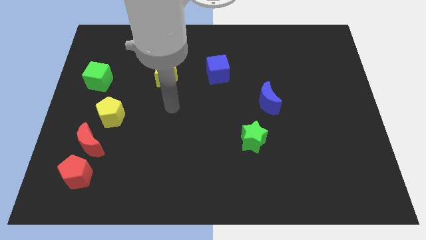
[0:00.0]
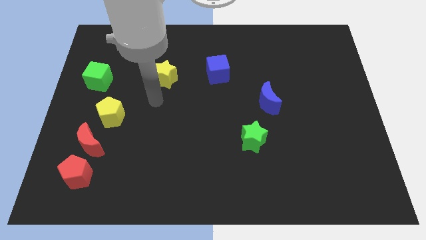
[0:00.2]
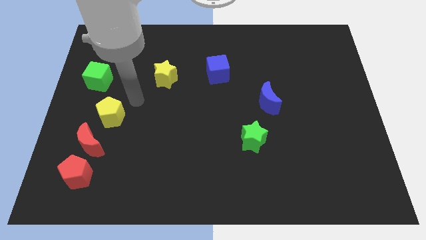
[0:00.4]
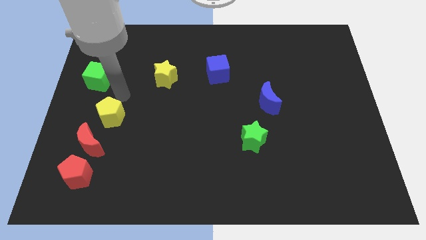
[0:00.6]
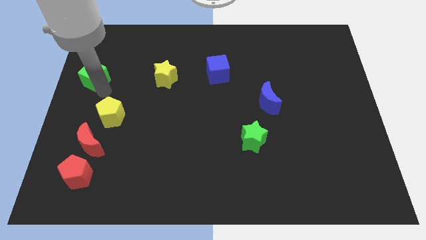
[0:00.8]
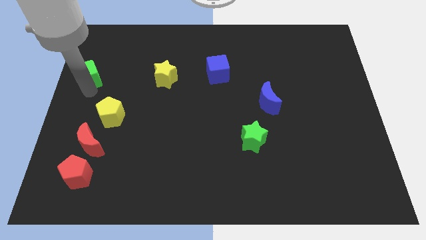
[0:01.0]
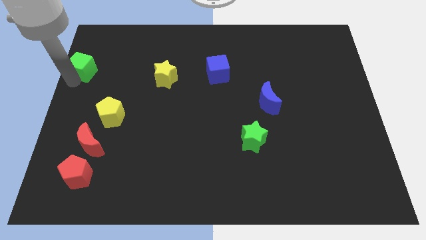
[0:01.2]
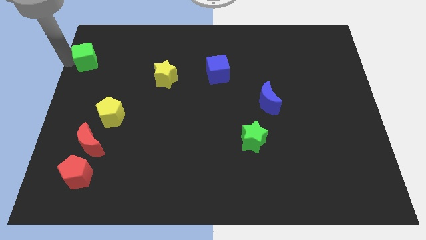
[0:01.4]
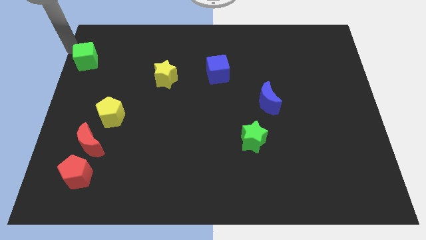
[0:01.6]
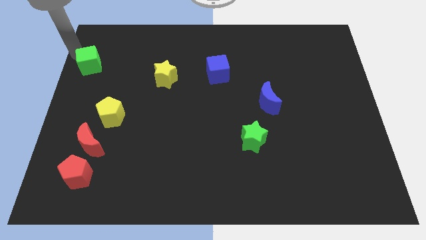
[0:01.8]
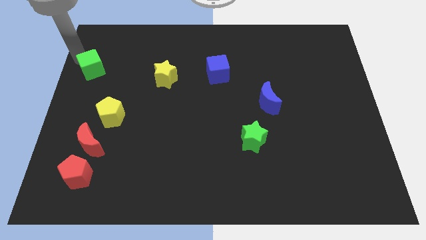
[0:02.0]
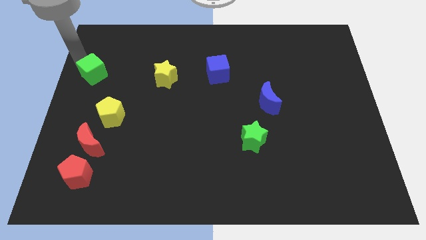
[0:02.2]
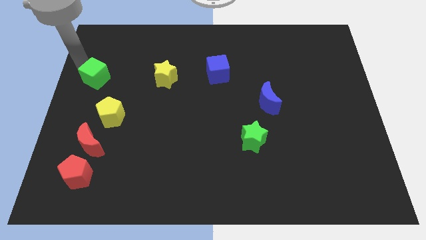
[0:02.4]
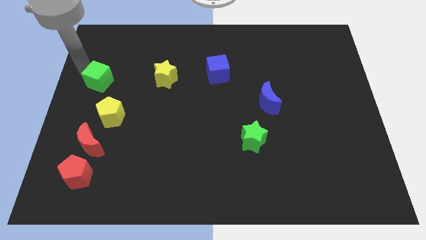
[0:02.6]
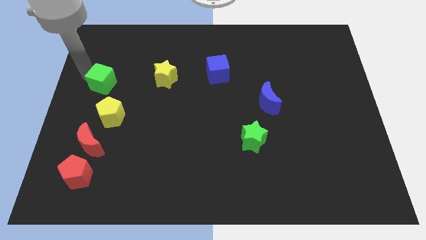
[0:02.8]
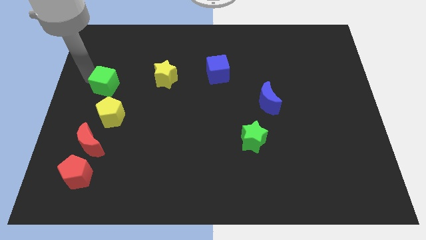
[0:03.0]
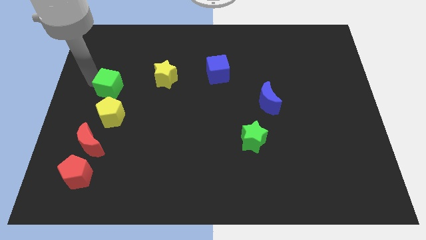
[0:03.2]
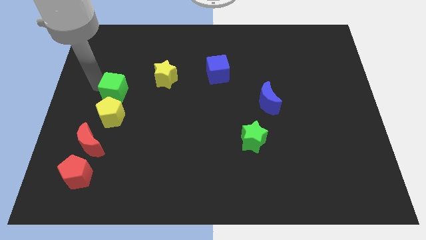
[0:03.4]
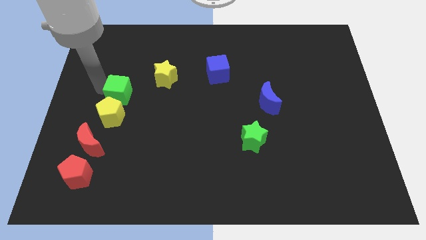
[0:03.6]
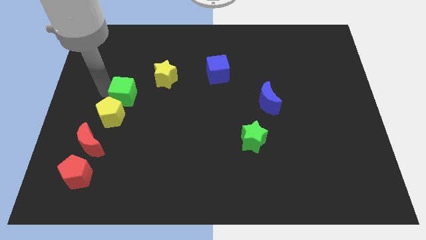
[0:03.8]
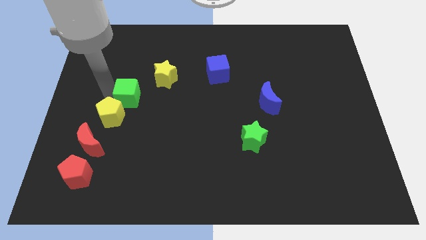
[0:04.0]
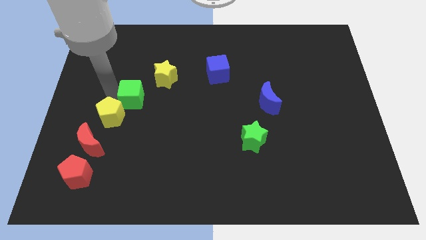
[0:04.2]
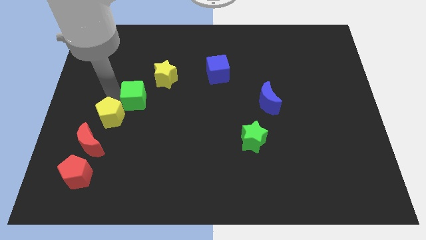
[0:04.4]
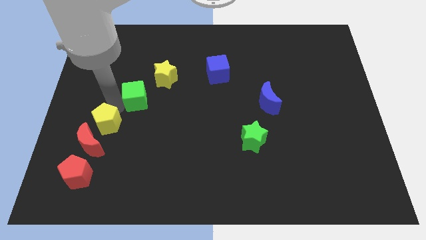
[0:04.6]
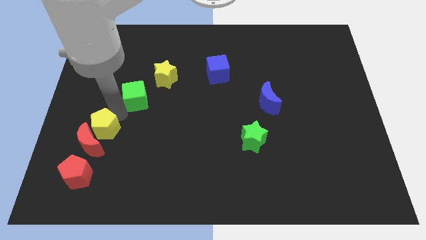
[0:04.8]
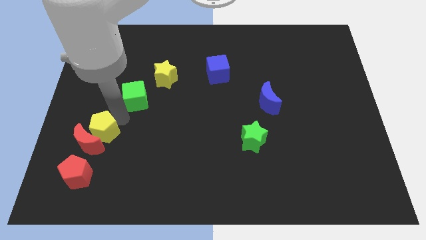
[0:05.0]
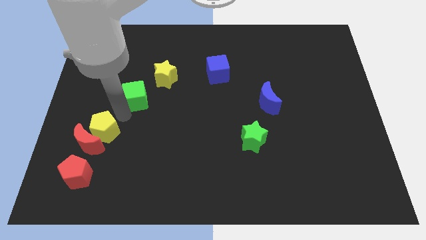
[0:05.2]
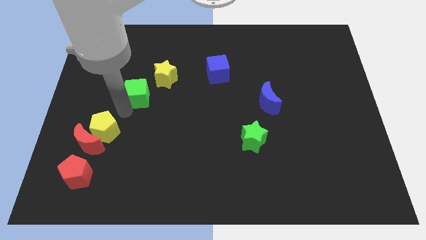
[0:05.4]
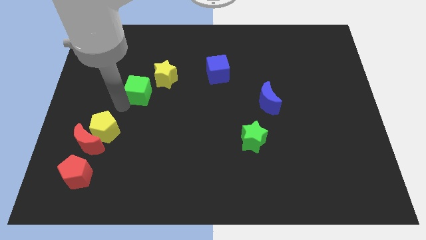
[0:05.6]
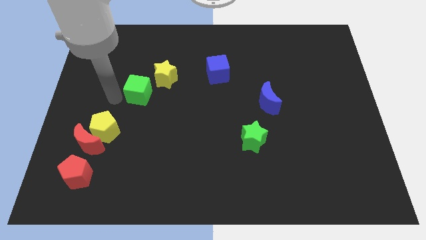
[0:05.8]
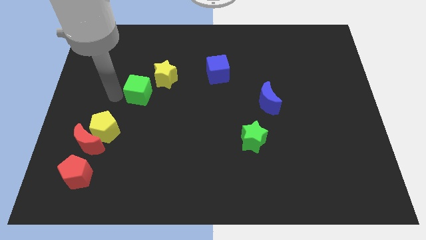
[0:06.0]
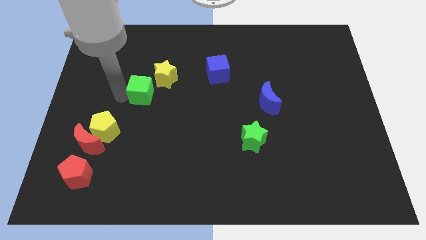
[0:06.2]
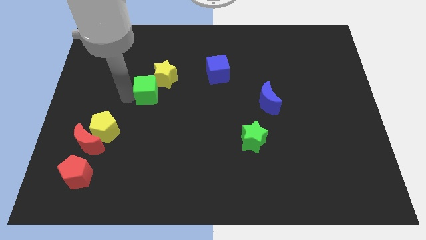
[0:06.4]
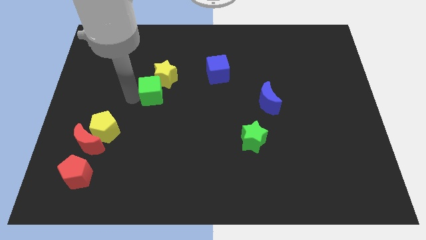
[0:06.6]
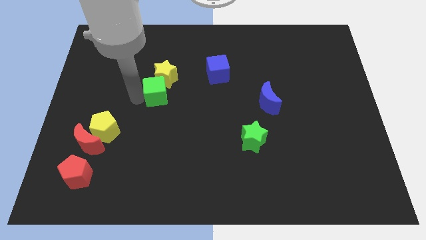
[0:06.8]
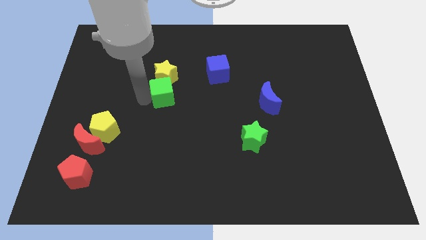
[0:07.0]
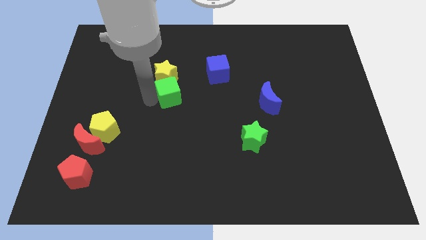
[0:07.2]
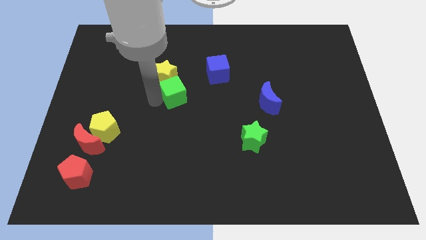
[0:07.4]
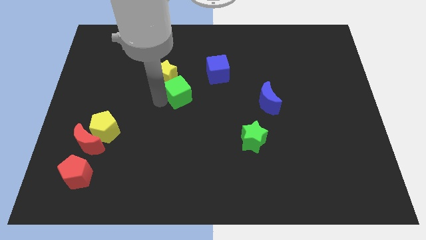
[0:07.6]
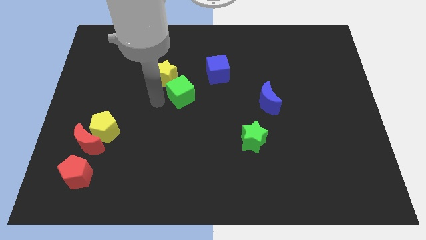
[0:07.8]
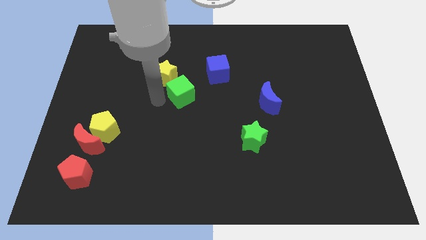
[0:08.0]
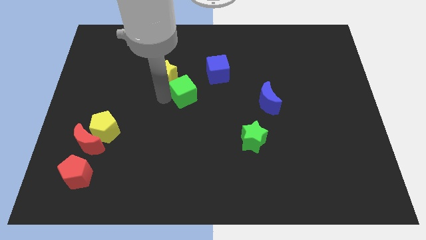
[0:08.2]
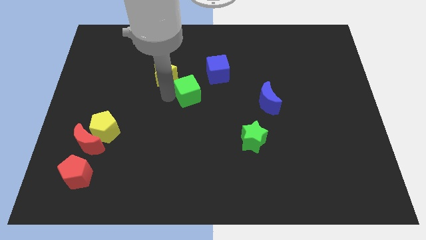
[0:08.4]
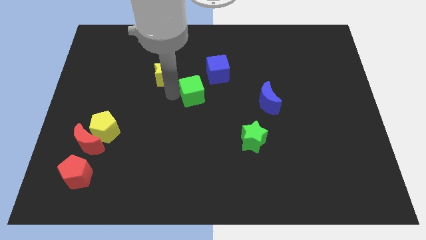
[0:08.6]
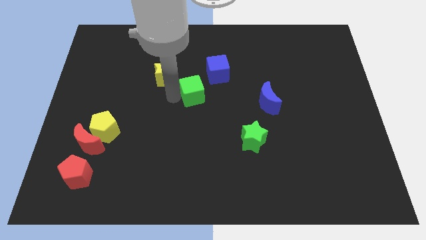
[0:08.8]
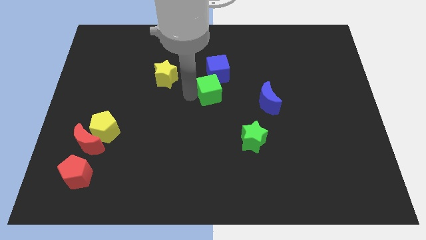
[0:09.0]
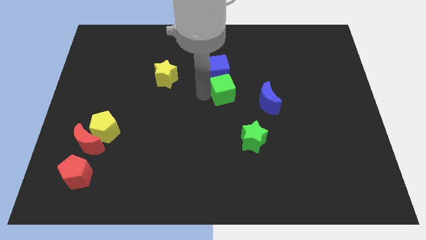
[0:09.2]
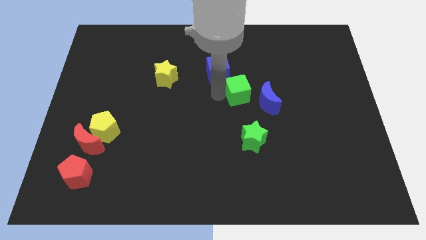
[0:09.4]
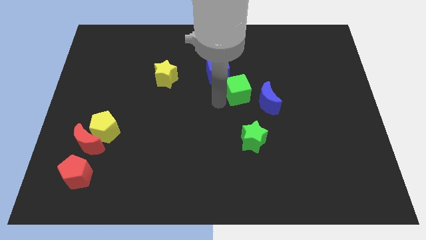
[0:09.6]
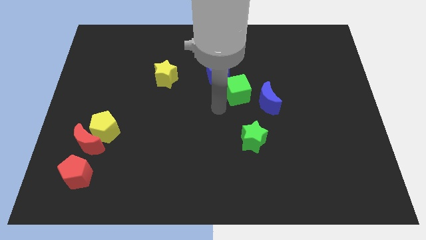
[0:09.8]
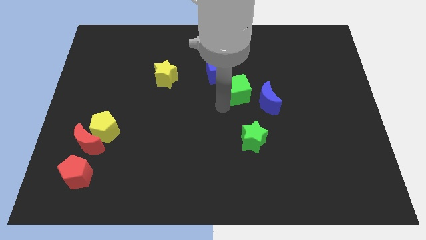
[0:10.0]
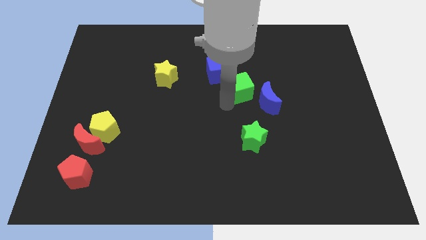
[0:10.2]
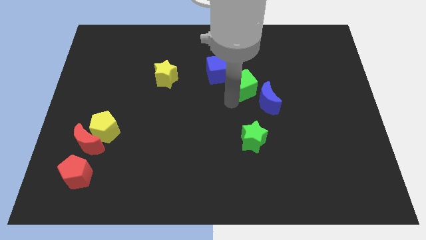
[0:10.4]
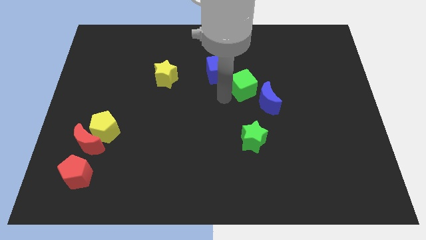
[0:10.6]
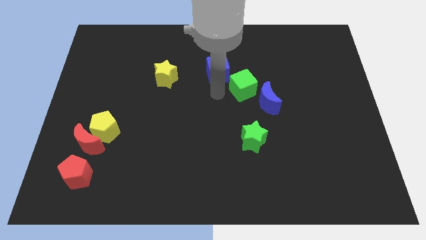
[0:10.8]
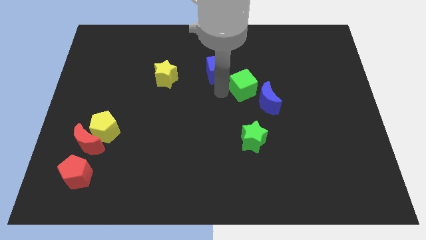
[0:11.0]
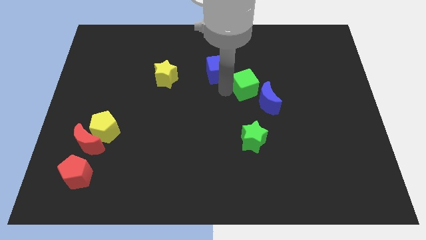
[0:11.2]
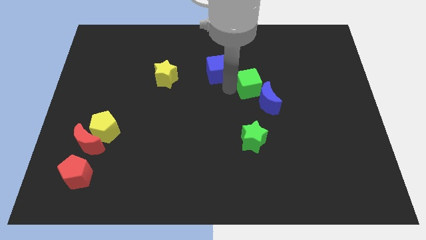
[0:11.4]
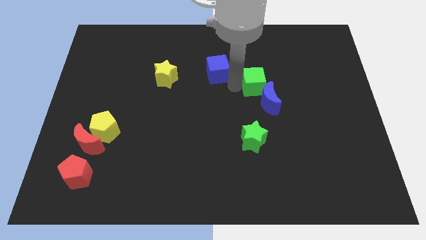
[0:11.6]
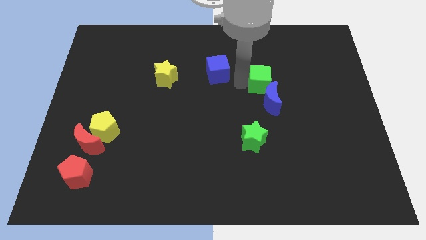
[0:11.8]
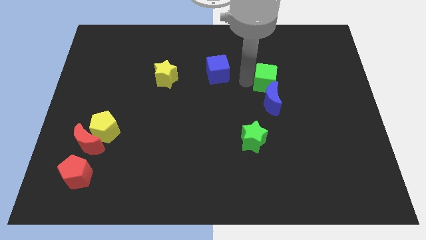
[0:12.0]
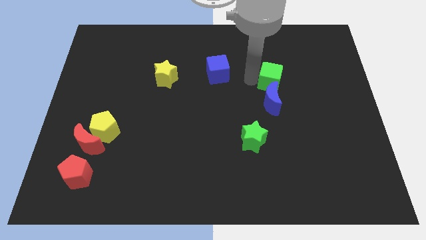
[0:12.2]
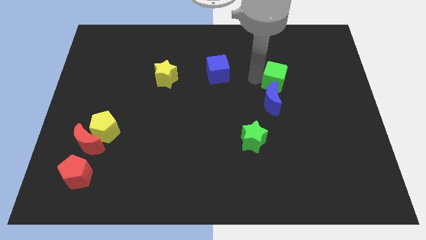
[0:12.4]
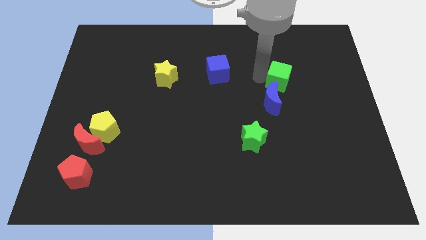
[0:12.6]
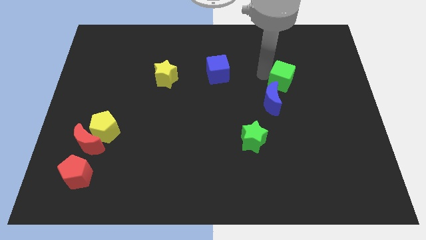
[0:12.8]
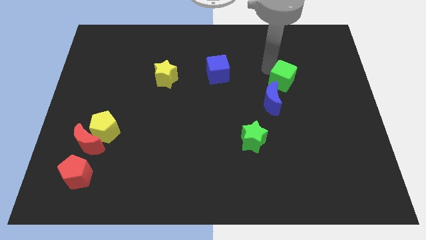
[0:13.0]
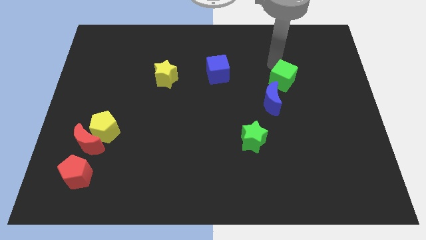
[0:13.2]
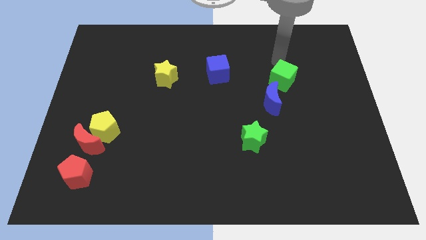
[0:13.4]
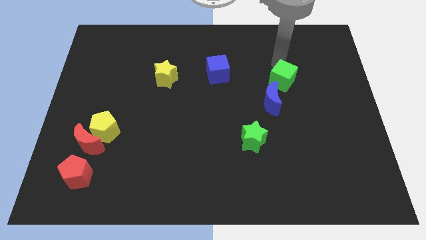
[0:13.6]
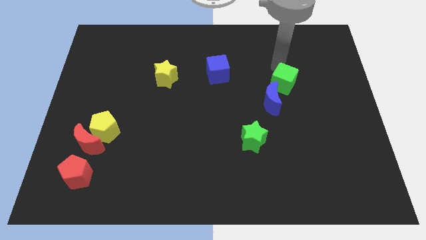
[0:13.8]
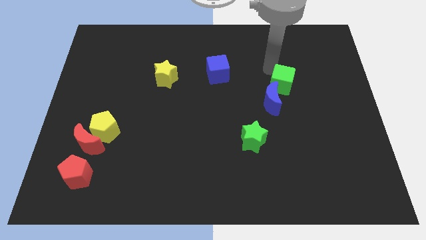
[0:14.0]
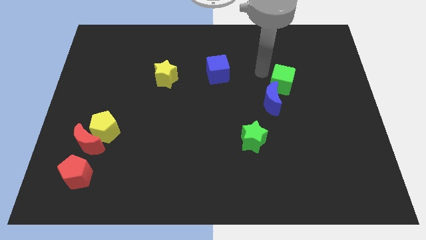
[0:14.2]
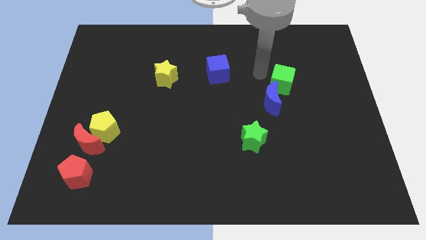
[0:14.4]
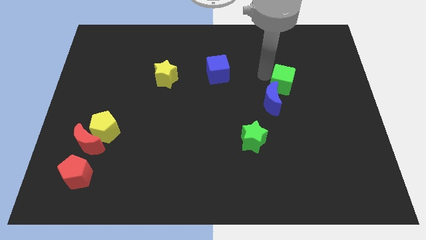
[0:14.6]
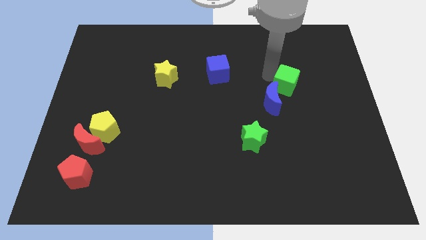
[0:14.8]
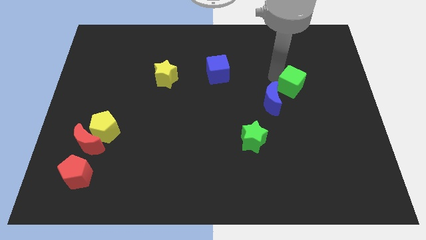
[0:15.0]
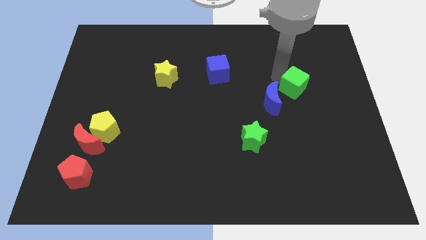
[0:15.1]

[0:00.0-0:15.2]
move the green cube to the right of the blue moon
